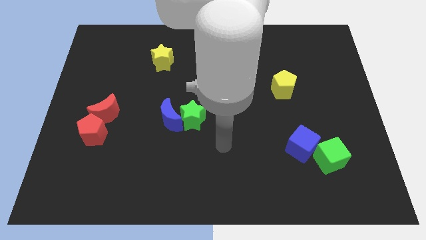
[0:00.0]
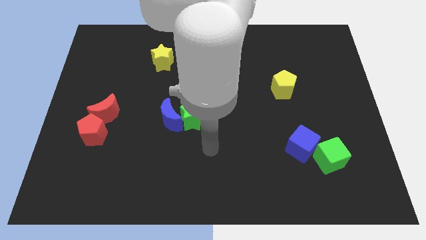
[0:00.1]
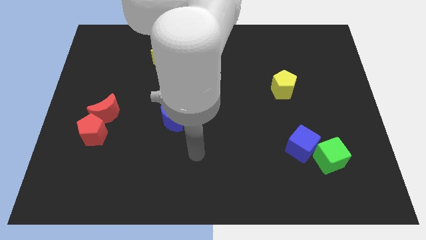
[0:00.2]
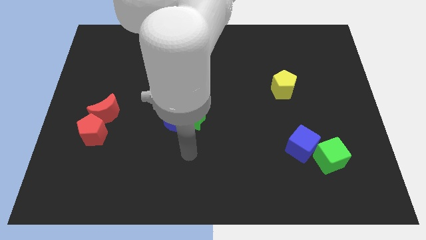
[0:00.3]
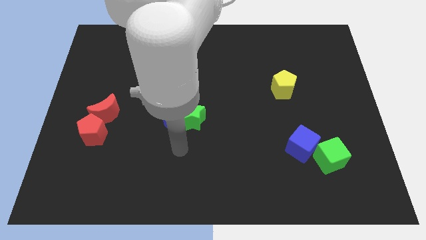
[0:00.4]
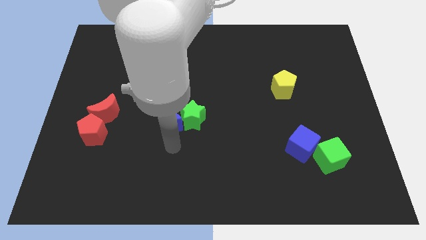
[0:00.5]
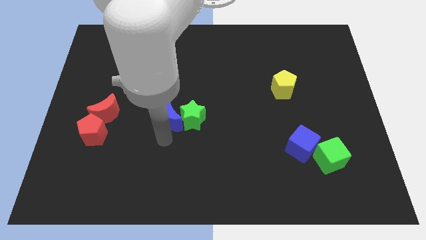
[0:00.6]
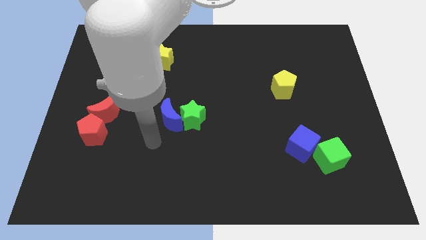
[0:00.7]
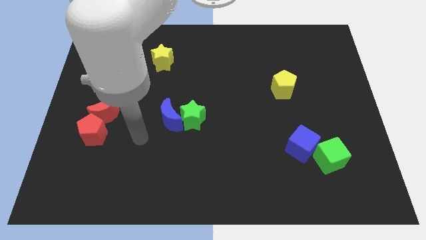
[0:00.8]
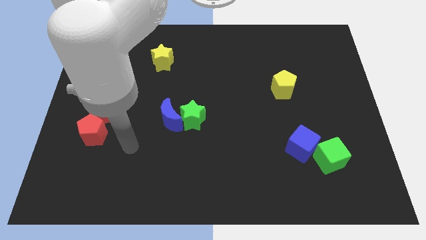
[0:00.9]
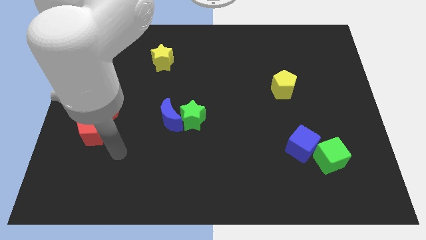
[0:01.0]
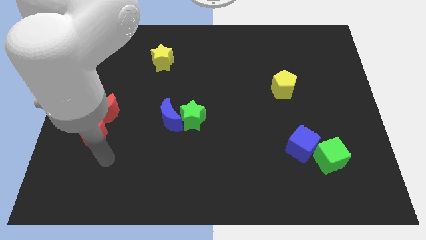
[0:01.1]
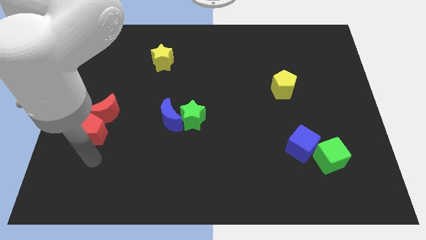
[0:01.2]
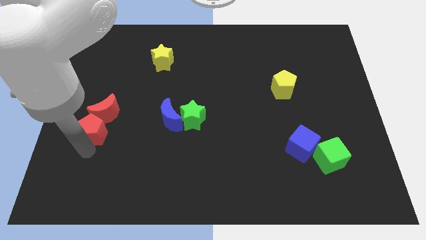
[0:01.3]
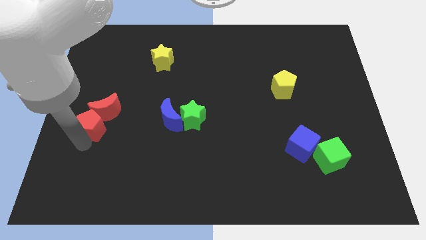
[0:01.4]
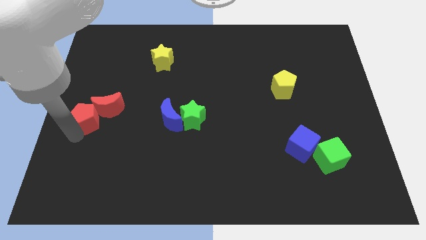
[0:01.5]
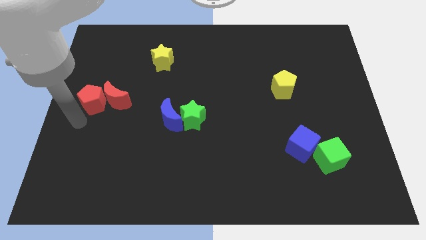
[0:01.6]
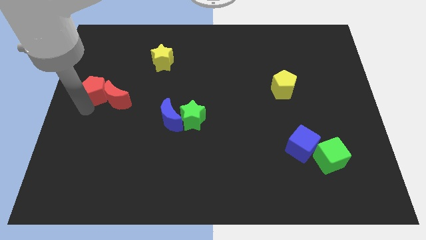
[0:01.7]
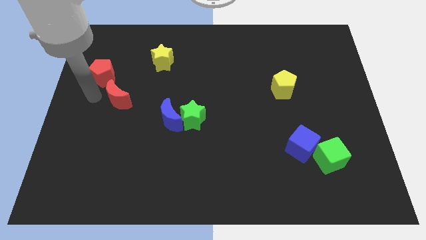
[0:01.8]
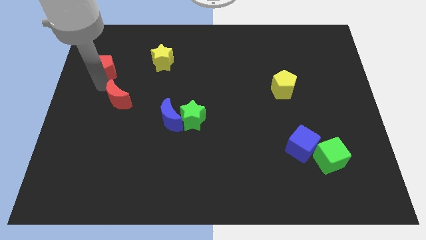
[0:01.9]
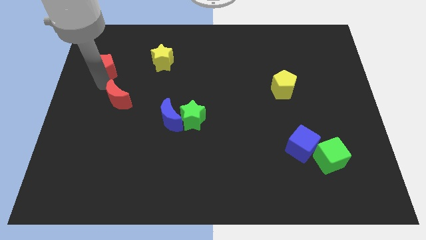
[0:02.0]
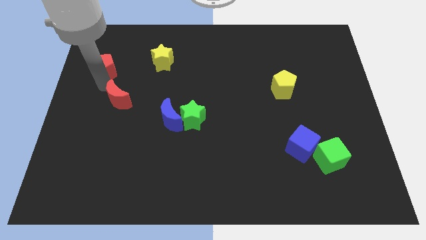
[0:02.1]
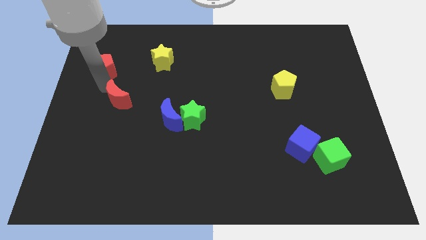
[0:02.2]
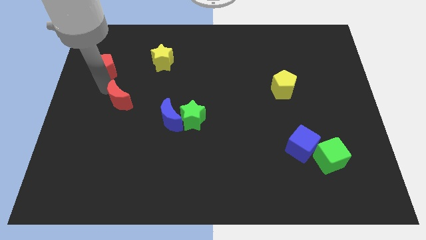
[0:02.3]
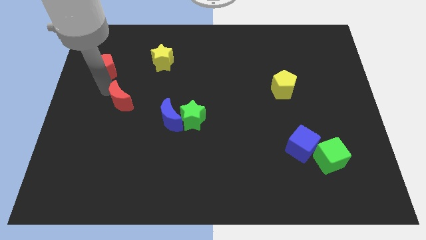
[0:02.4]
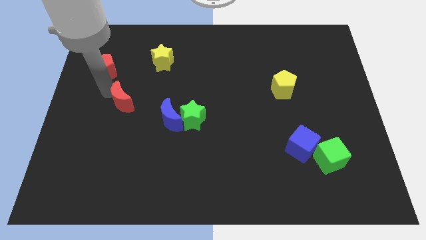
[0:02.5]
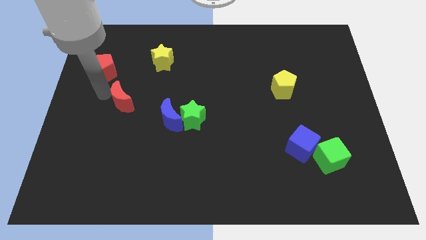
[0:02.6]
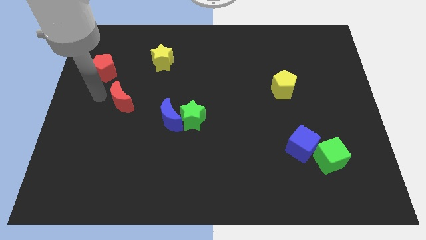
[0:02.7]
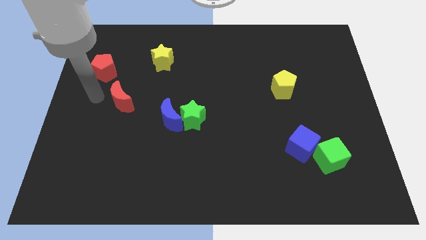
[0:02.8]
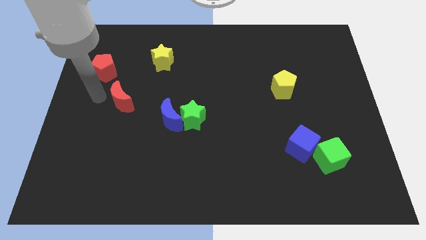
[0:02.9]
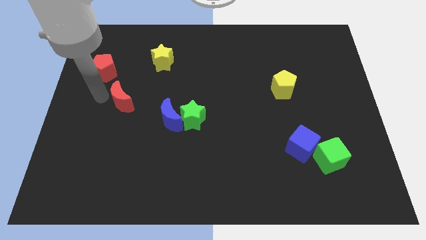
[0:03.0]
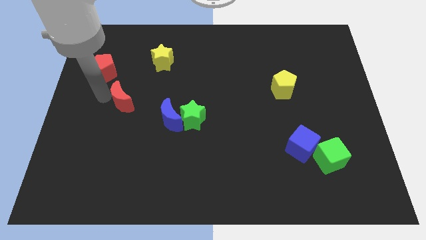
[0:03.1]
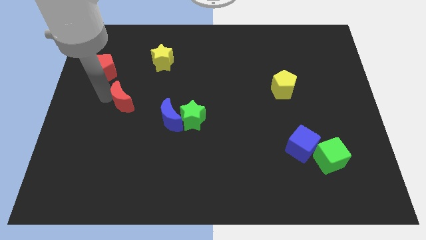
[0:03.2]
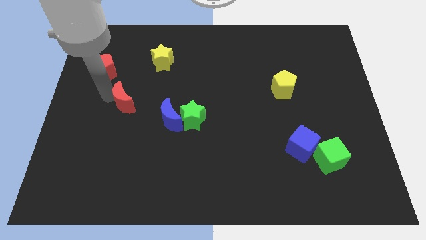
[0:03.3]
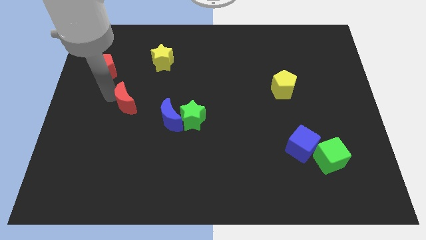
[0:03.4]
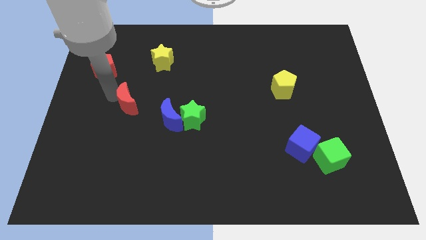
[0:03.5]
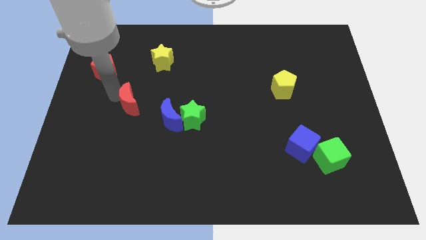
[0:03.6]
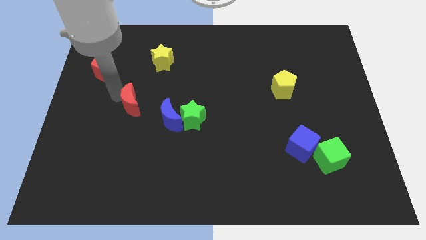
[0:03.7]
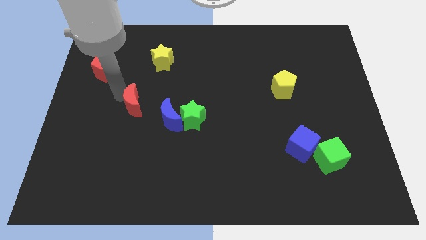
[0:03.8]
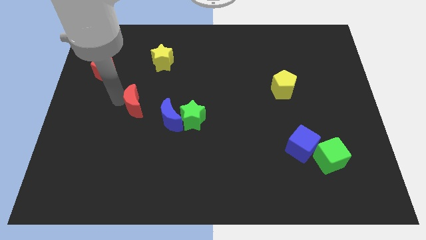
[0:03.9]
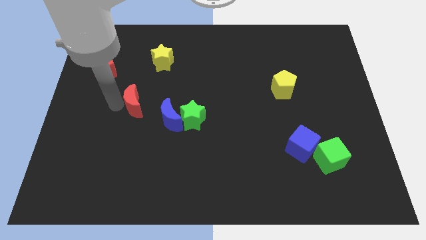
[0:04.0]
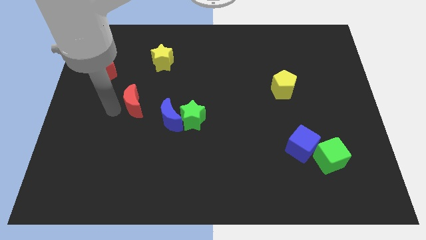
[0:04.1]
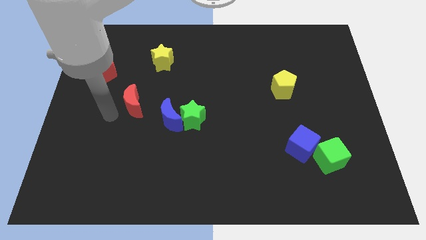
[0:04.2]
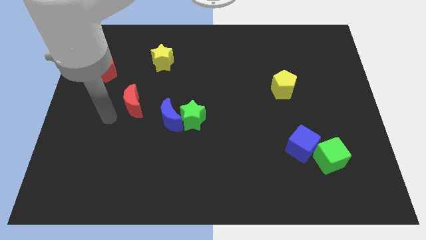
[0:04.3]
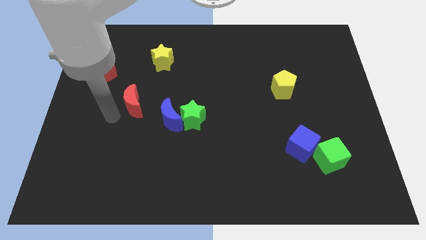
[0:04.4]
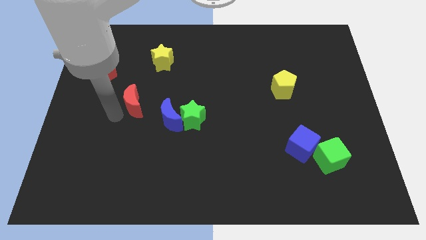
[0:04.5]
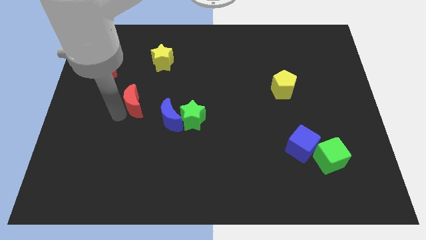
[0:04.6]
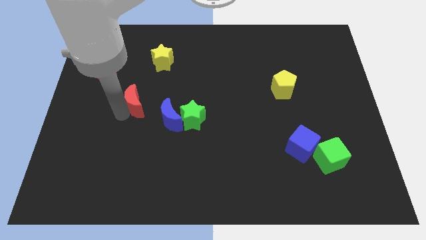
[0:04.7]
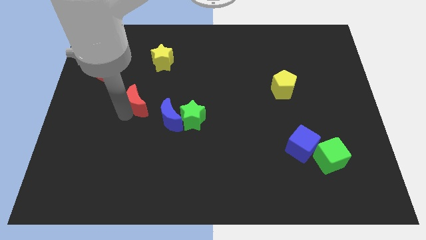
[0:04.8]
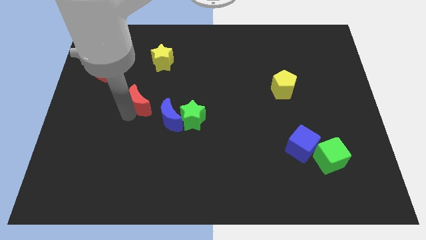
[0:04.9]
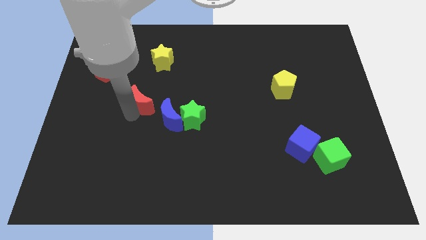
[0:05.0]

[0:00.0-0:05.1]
push the red moon below the yellow star

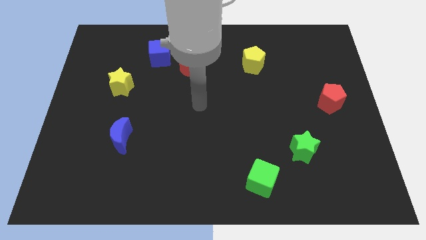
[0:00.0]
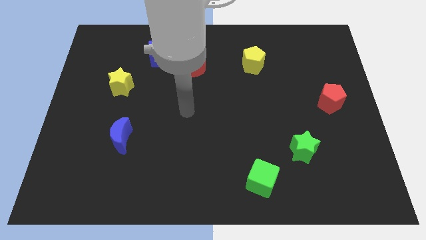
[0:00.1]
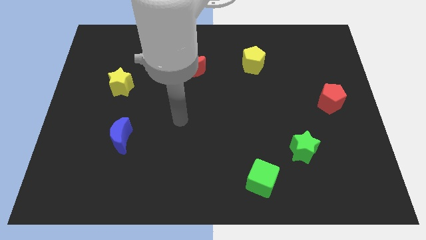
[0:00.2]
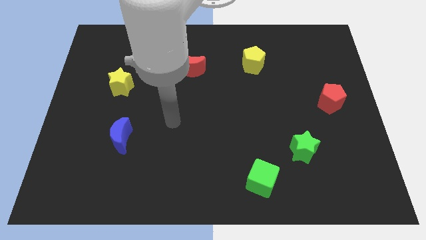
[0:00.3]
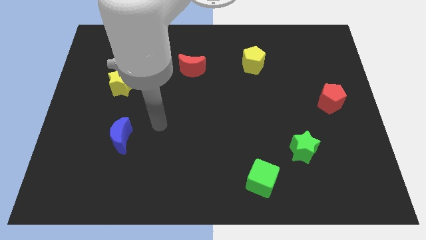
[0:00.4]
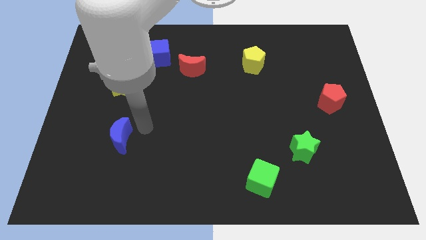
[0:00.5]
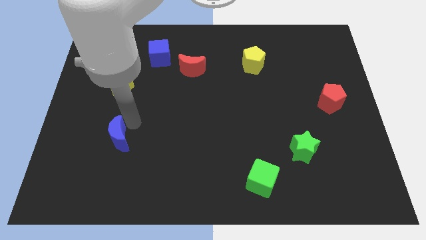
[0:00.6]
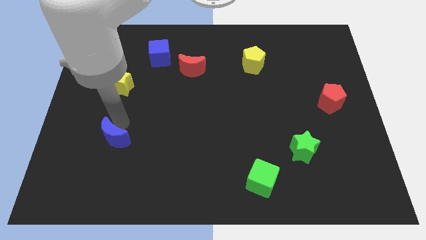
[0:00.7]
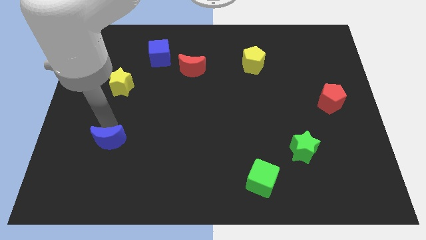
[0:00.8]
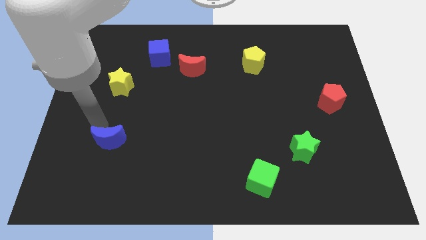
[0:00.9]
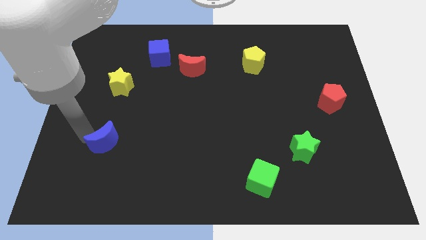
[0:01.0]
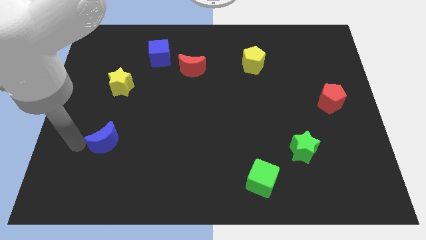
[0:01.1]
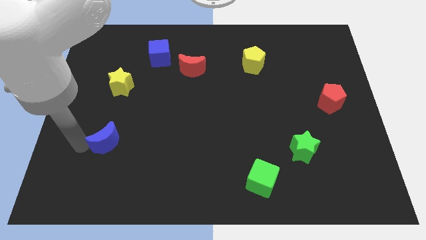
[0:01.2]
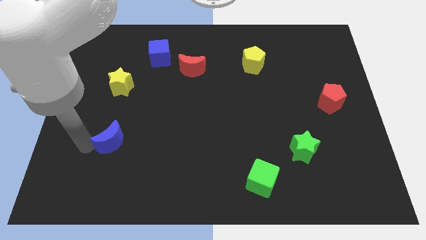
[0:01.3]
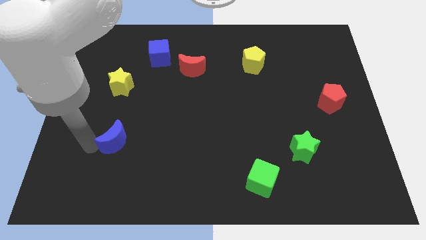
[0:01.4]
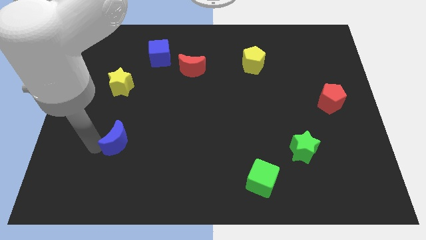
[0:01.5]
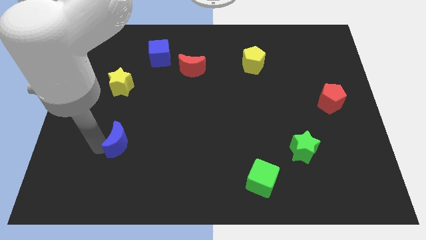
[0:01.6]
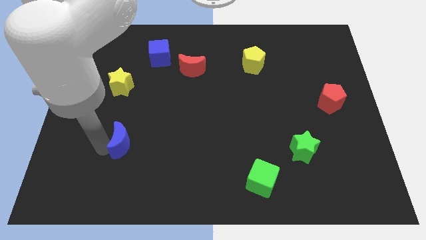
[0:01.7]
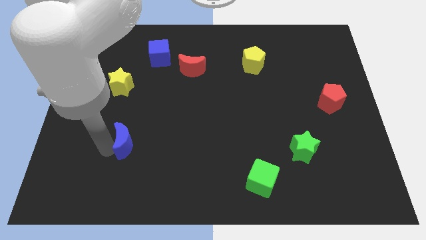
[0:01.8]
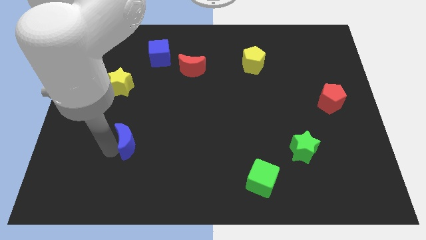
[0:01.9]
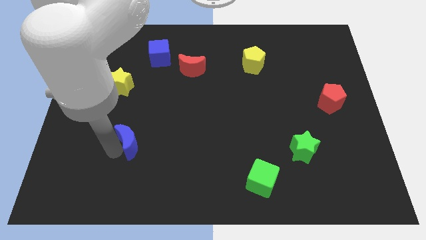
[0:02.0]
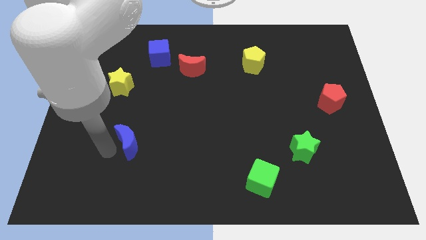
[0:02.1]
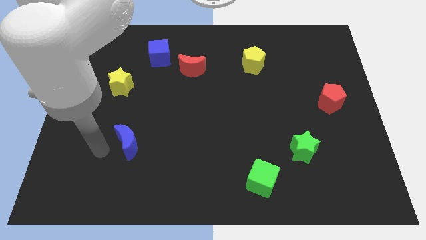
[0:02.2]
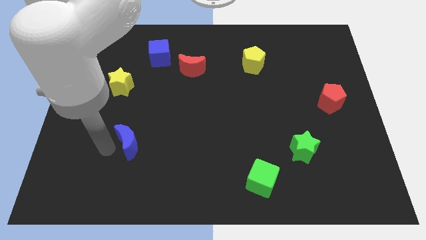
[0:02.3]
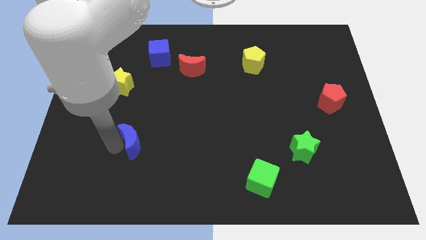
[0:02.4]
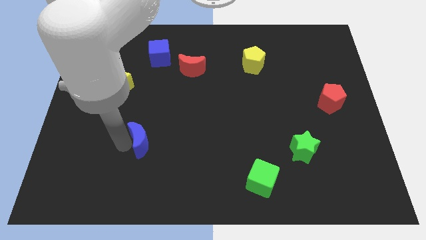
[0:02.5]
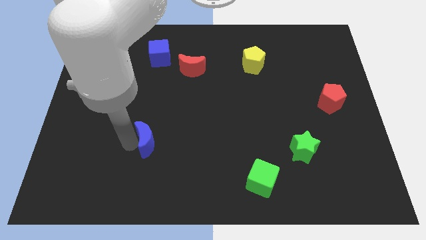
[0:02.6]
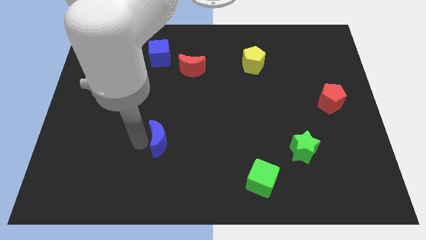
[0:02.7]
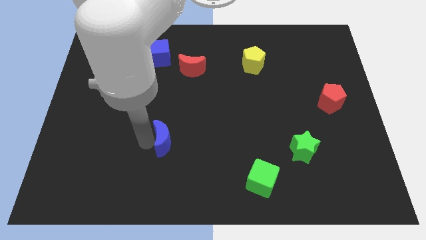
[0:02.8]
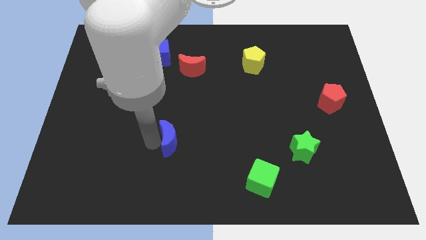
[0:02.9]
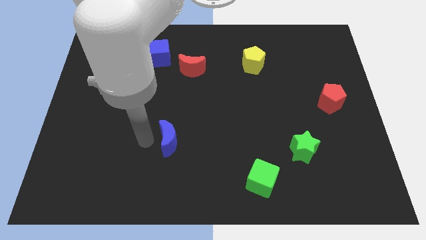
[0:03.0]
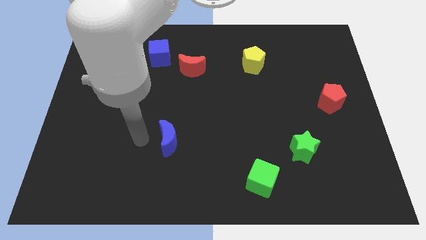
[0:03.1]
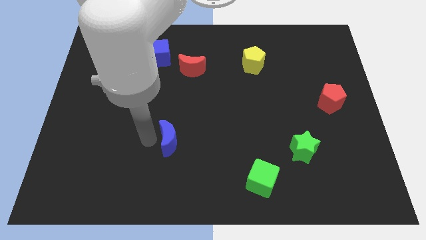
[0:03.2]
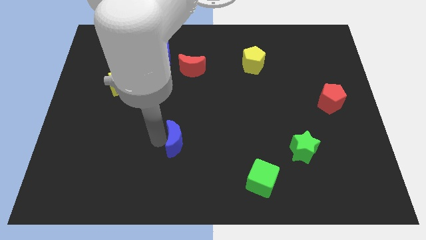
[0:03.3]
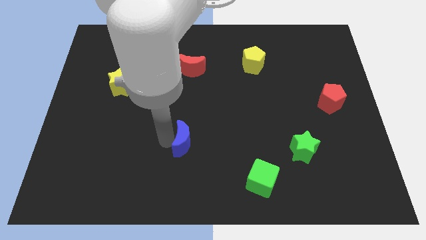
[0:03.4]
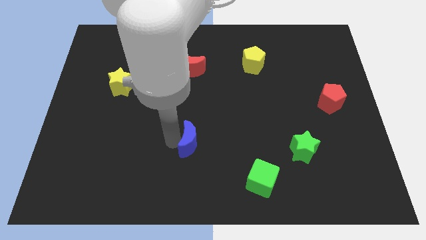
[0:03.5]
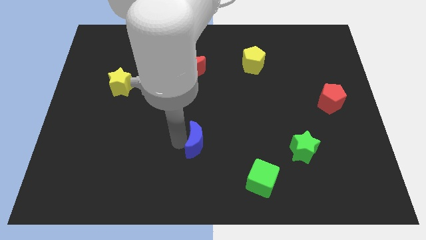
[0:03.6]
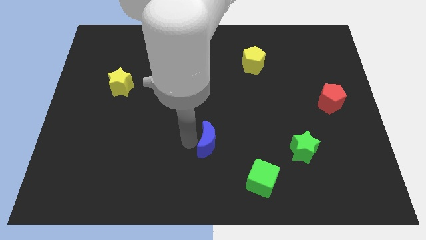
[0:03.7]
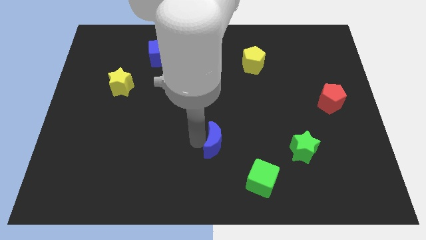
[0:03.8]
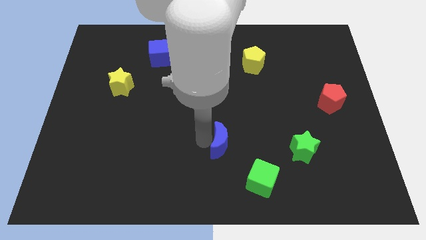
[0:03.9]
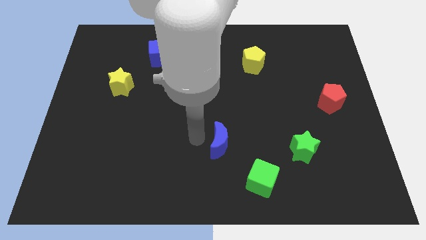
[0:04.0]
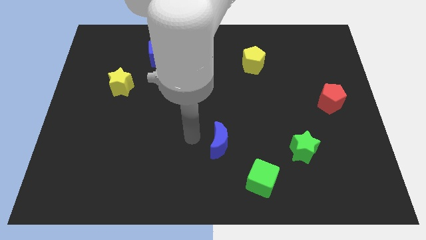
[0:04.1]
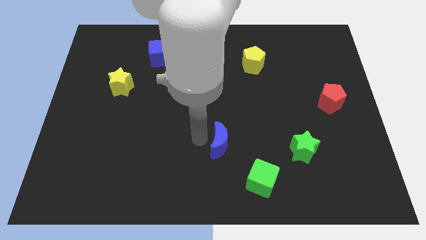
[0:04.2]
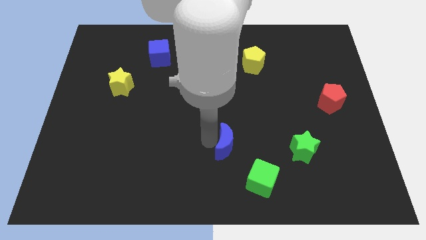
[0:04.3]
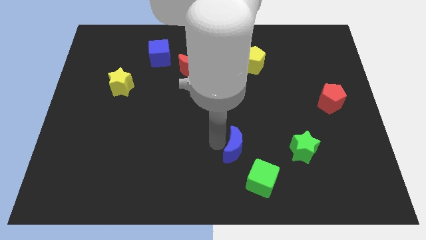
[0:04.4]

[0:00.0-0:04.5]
put the blue moon to the left of the green star
